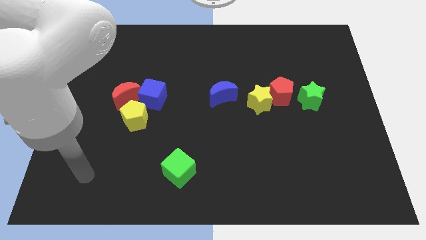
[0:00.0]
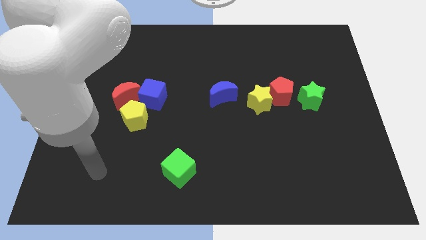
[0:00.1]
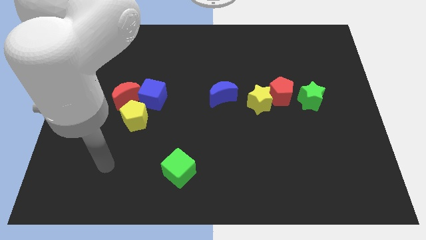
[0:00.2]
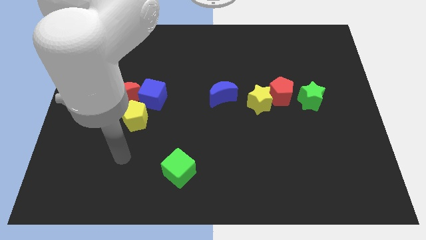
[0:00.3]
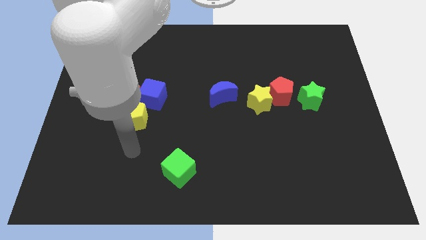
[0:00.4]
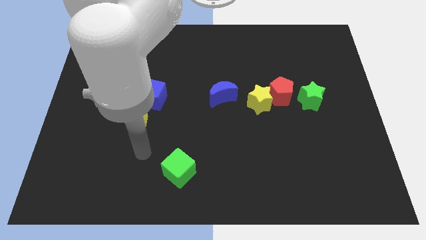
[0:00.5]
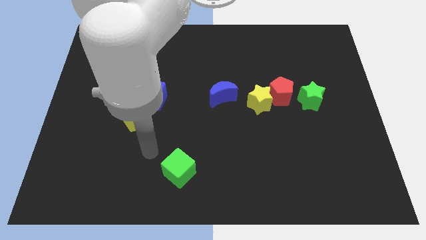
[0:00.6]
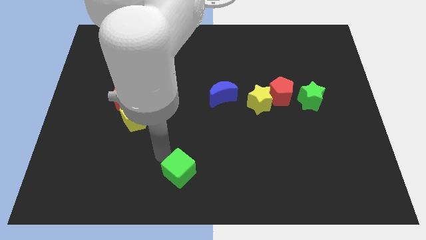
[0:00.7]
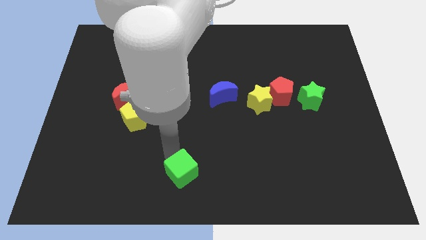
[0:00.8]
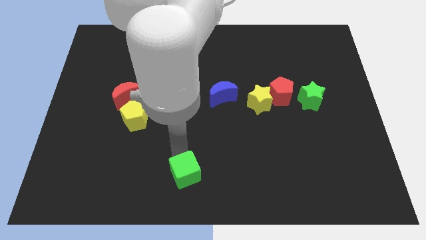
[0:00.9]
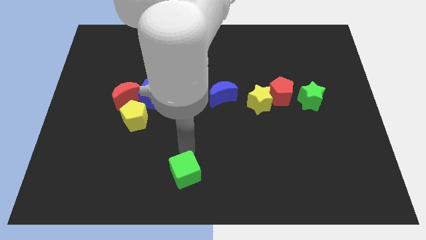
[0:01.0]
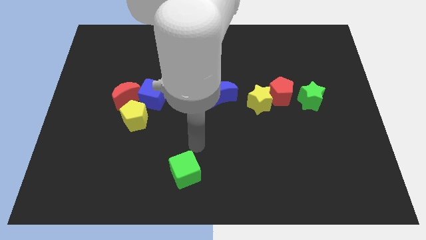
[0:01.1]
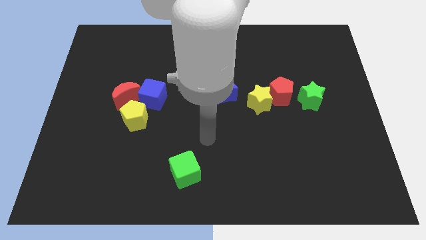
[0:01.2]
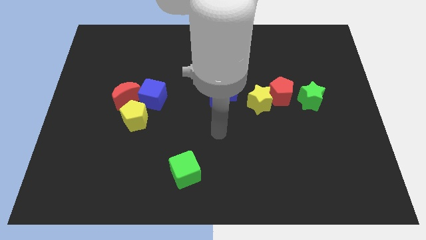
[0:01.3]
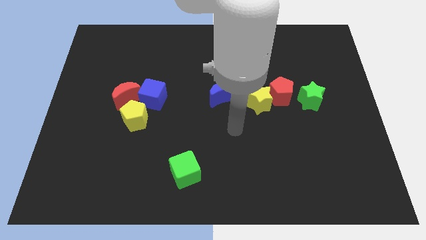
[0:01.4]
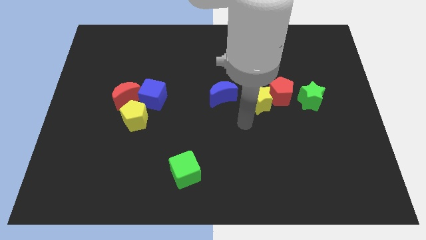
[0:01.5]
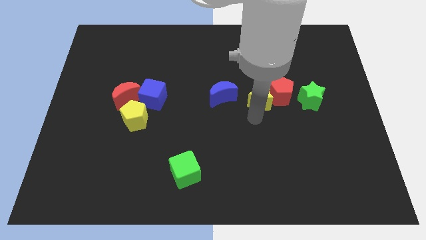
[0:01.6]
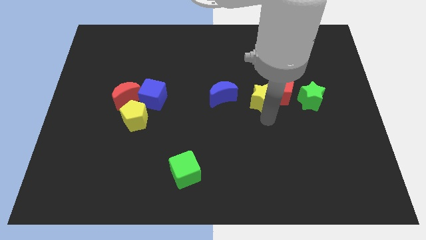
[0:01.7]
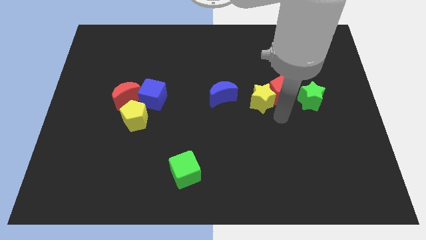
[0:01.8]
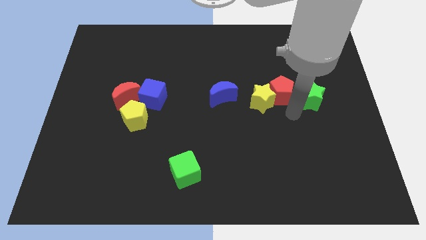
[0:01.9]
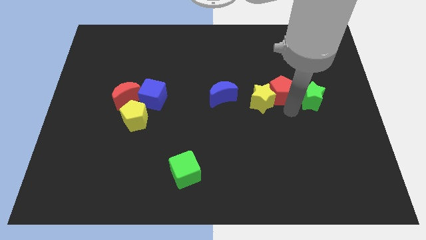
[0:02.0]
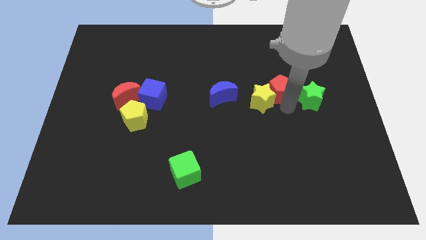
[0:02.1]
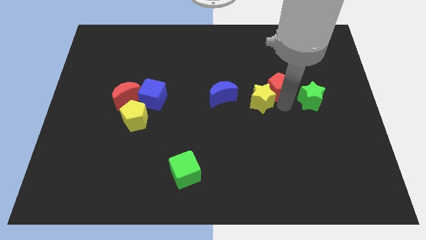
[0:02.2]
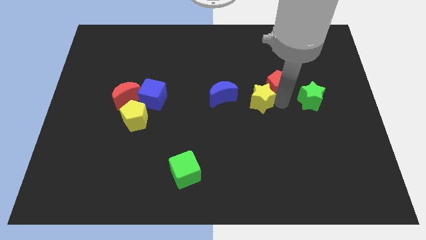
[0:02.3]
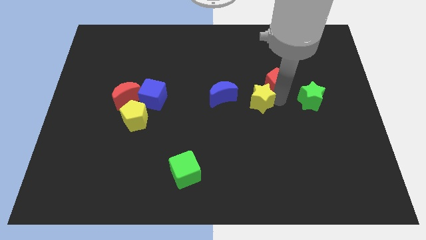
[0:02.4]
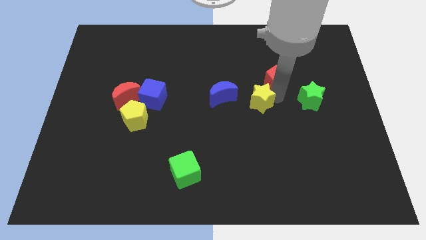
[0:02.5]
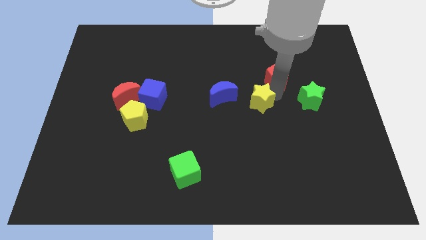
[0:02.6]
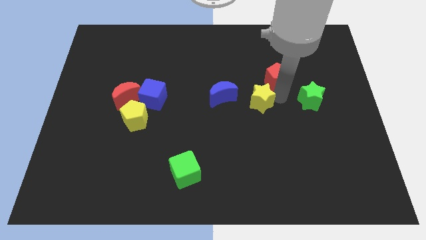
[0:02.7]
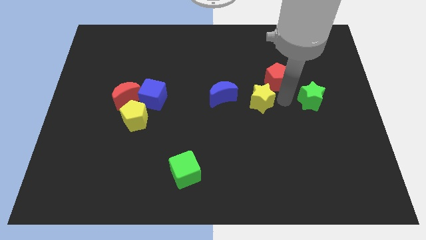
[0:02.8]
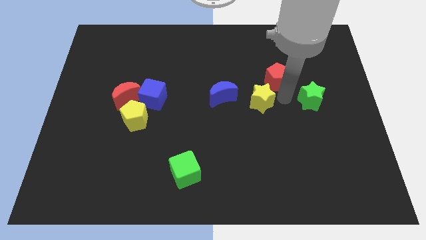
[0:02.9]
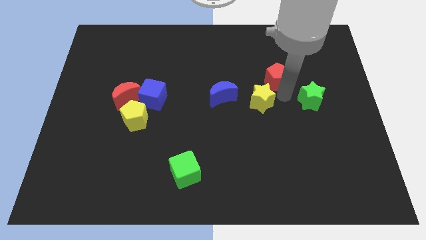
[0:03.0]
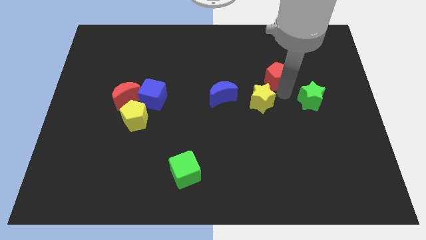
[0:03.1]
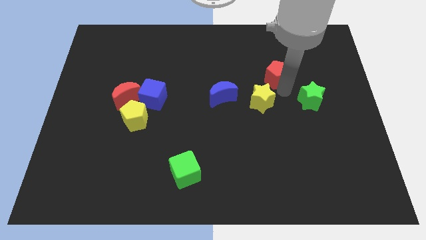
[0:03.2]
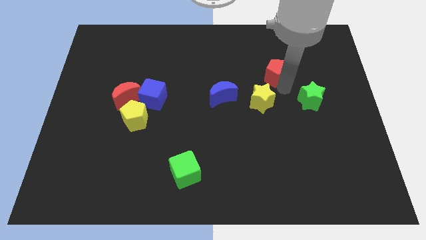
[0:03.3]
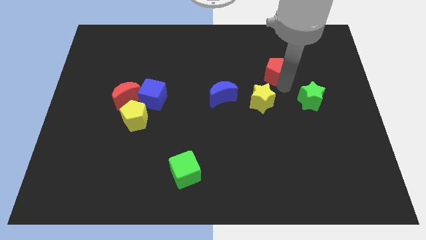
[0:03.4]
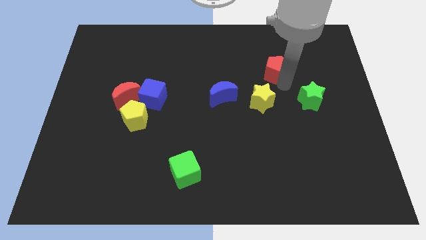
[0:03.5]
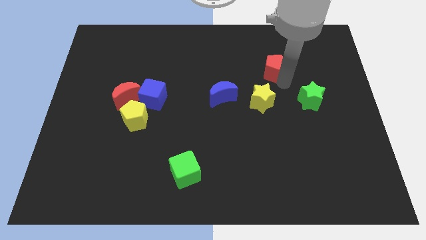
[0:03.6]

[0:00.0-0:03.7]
separate the red pentagon from the yellow star and green star

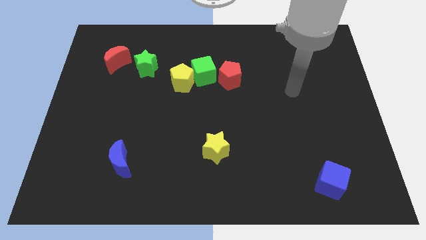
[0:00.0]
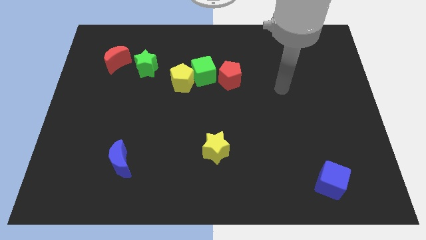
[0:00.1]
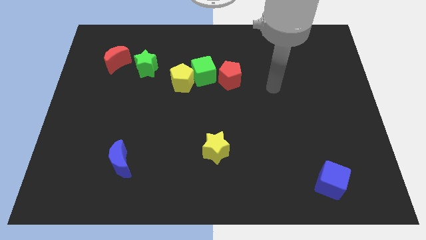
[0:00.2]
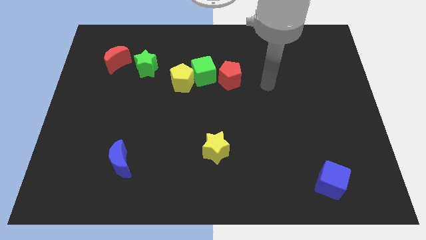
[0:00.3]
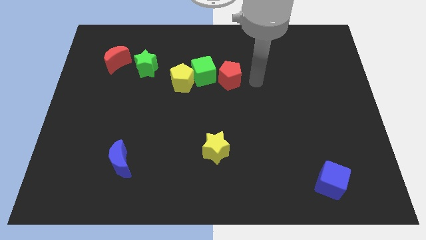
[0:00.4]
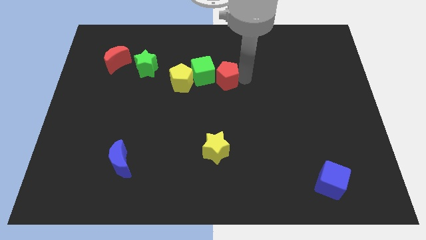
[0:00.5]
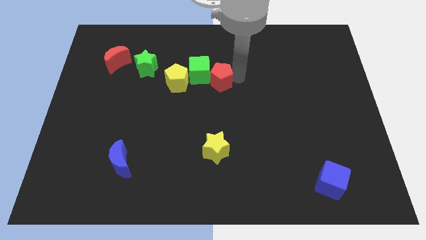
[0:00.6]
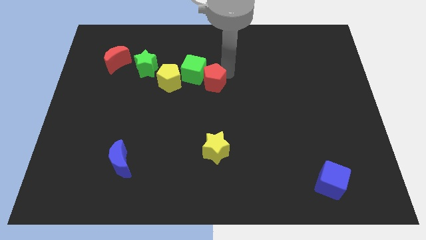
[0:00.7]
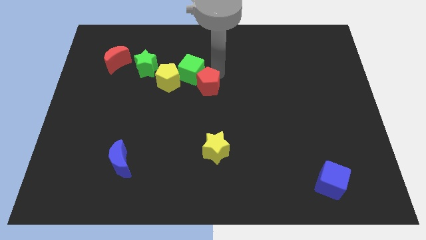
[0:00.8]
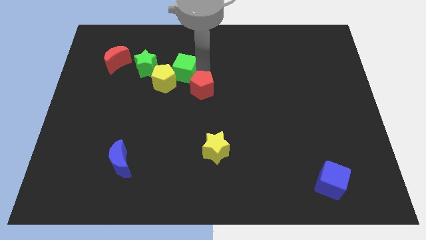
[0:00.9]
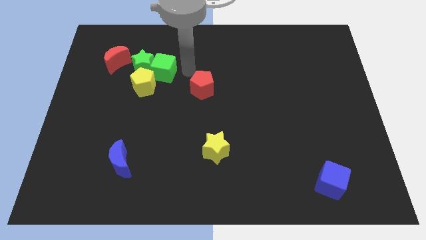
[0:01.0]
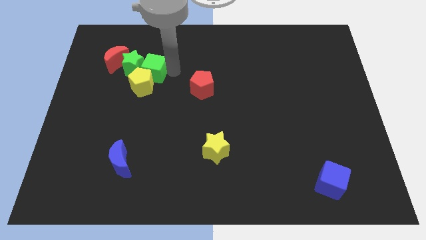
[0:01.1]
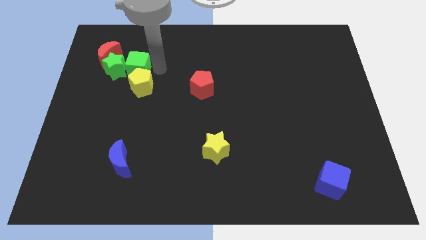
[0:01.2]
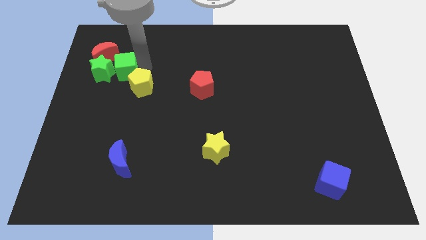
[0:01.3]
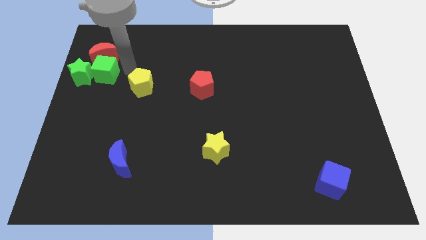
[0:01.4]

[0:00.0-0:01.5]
pull the yellow pentagon apart from the green cube

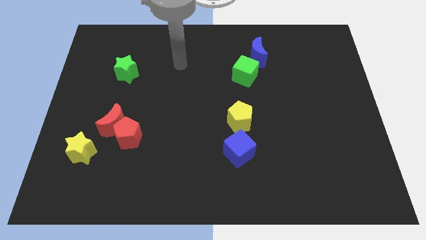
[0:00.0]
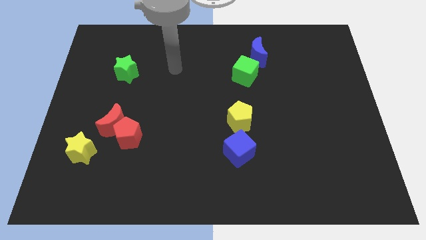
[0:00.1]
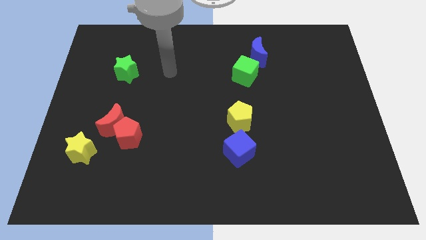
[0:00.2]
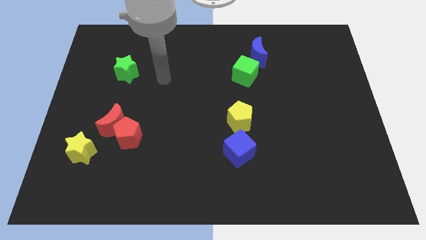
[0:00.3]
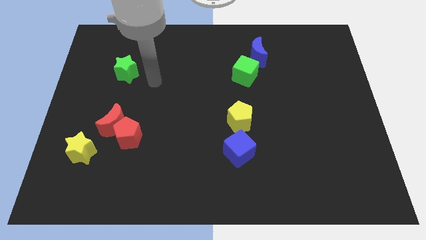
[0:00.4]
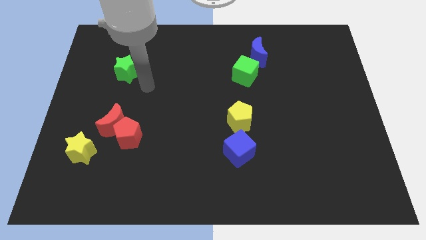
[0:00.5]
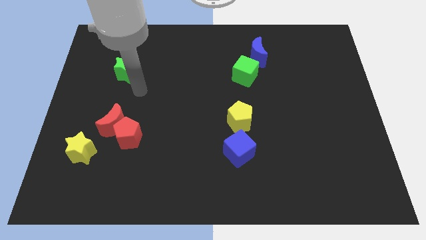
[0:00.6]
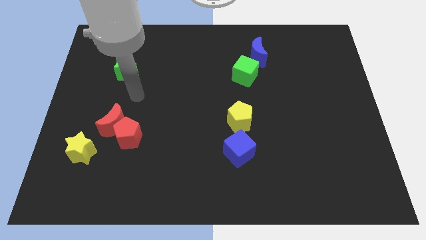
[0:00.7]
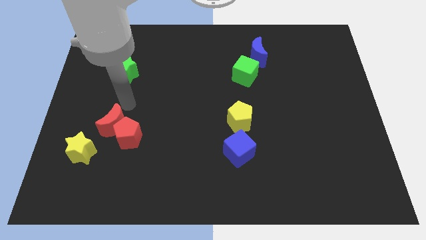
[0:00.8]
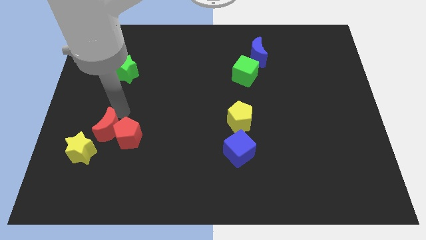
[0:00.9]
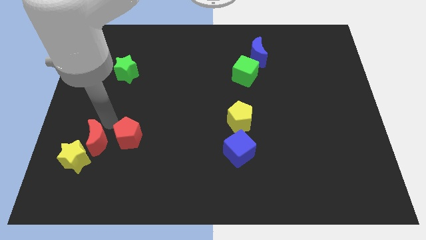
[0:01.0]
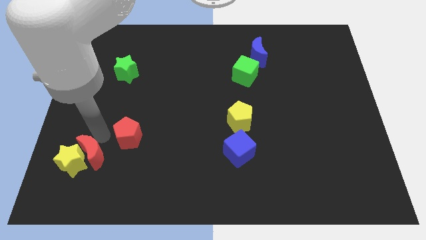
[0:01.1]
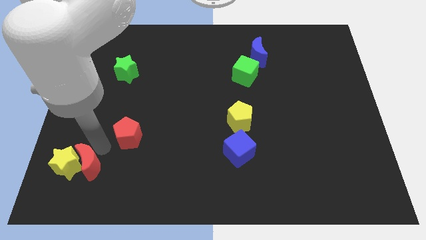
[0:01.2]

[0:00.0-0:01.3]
separate the red pentagon from the red moon

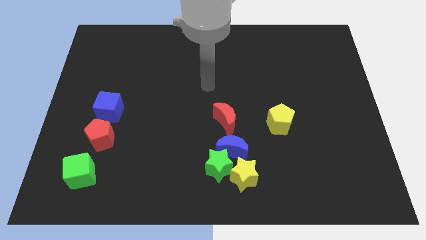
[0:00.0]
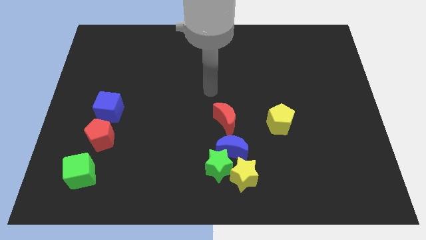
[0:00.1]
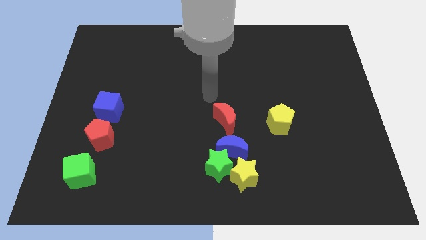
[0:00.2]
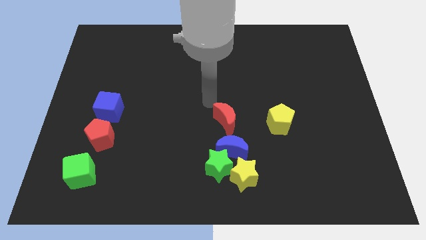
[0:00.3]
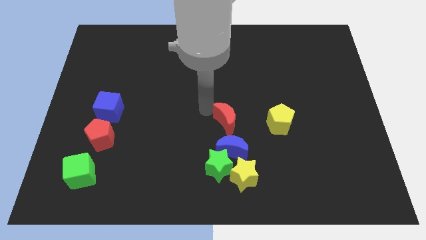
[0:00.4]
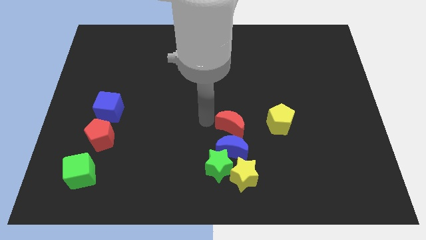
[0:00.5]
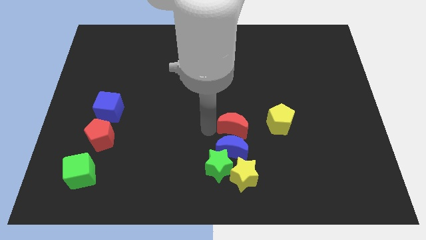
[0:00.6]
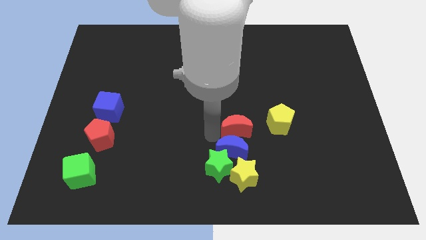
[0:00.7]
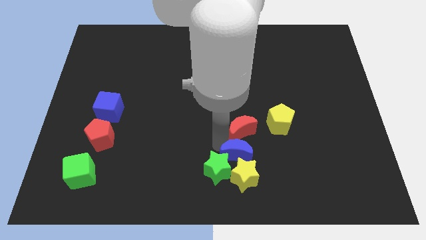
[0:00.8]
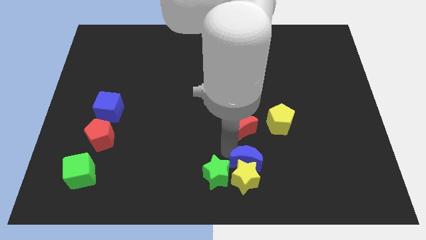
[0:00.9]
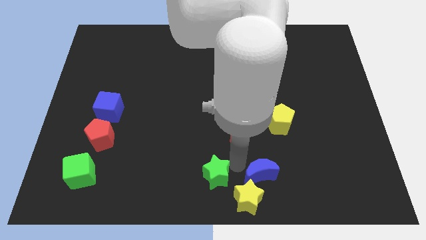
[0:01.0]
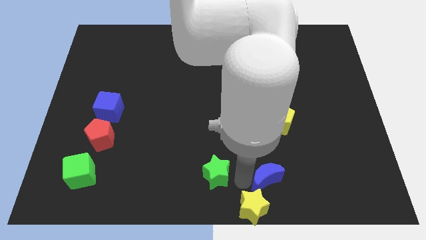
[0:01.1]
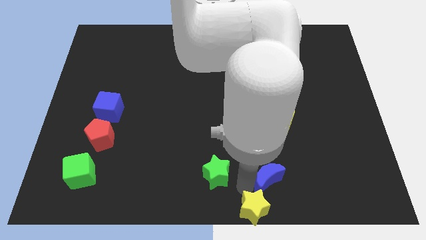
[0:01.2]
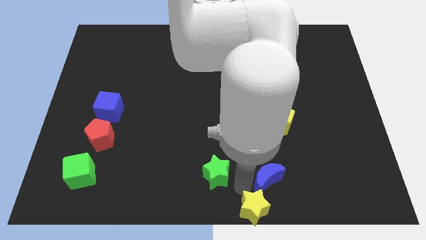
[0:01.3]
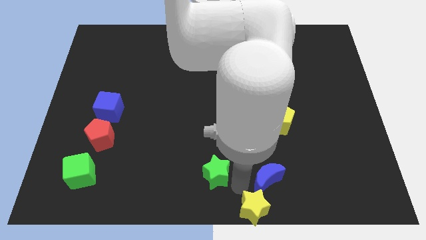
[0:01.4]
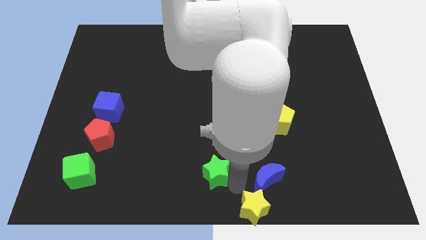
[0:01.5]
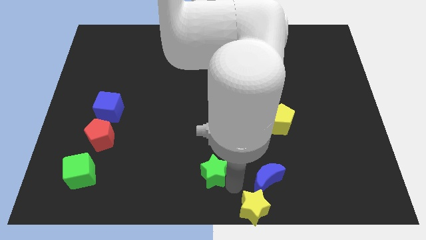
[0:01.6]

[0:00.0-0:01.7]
pull the green star apart from the blue moon and yellow star

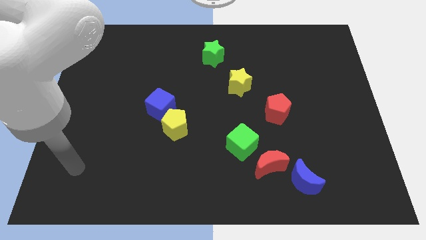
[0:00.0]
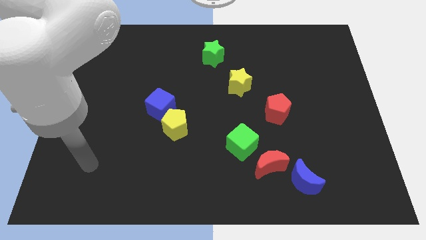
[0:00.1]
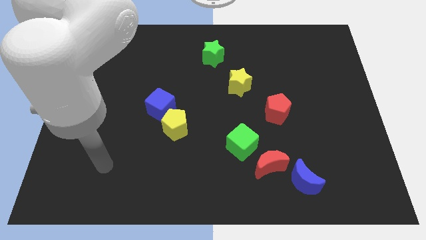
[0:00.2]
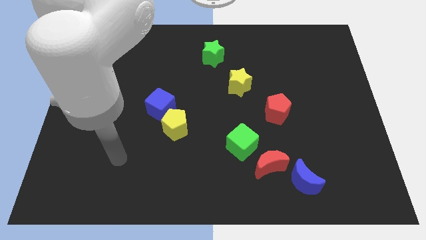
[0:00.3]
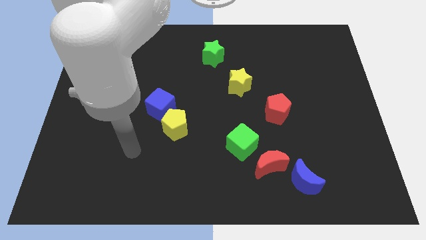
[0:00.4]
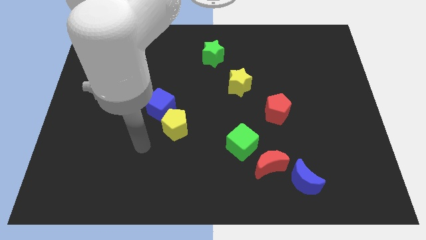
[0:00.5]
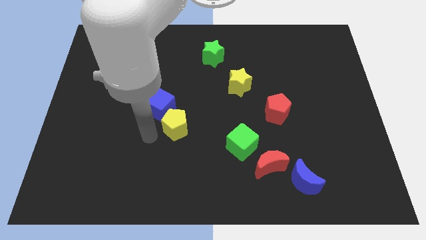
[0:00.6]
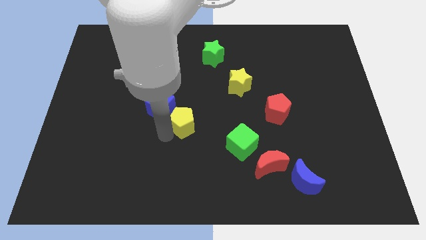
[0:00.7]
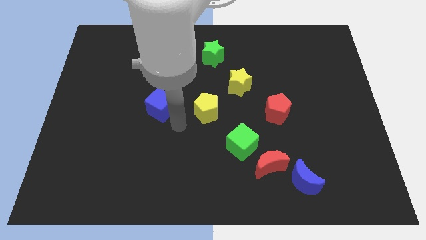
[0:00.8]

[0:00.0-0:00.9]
separate the blue cube from the yellow pentagon

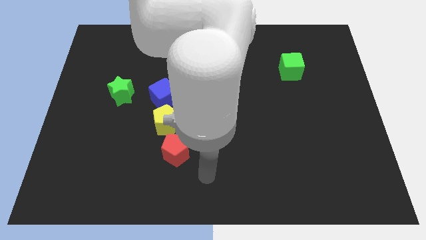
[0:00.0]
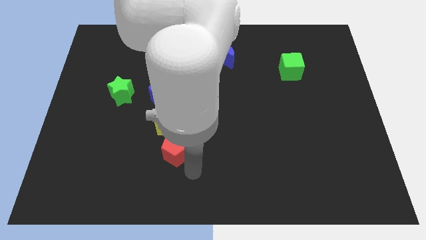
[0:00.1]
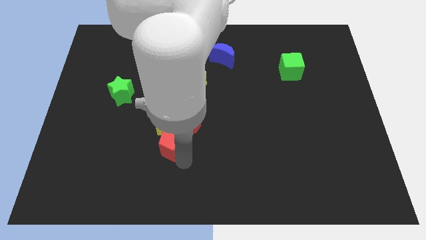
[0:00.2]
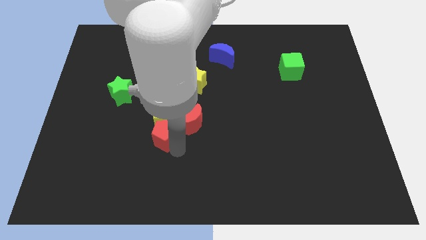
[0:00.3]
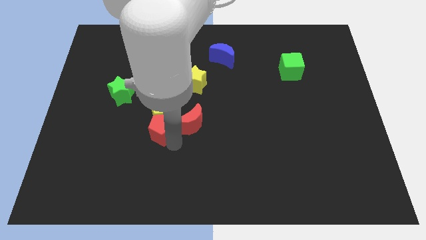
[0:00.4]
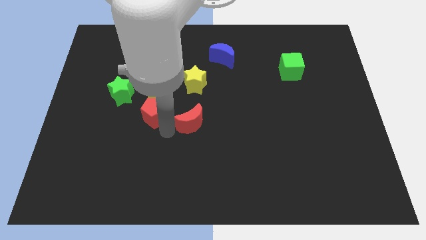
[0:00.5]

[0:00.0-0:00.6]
separate the red moon from the yellow pentagon and red pentagon
